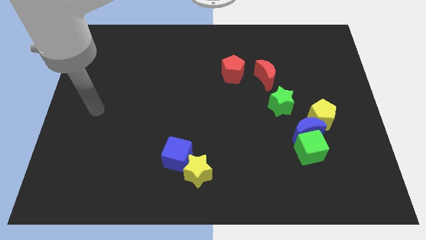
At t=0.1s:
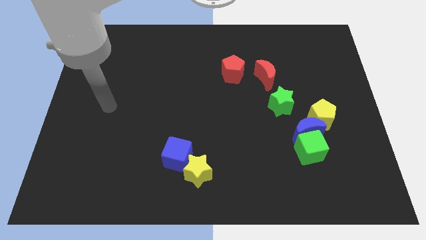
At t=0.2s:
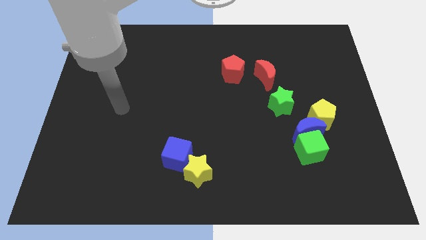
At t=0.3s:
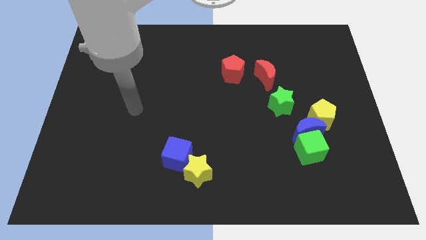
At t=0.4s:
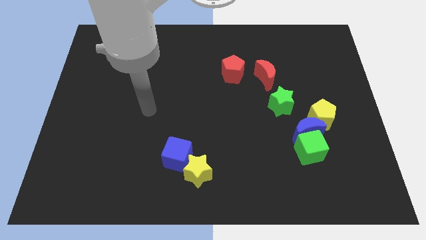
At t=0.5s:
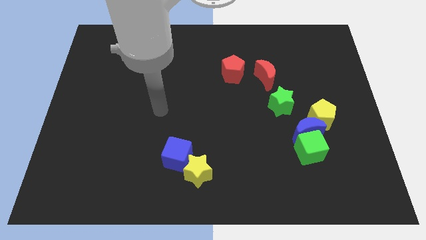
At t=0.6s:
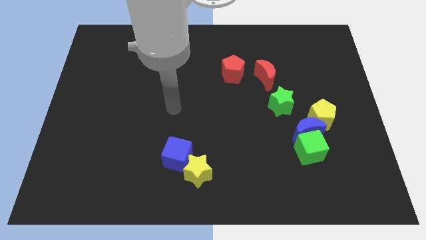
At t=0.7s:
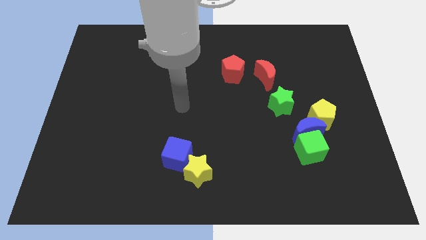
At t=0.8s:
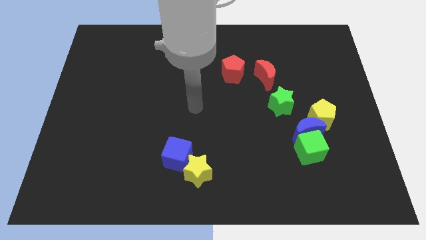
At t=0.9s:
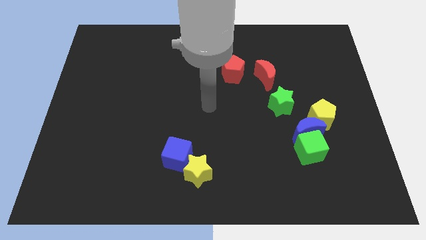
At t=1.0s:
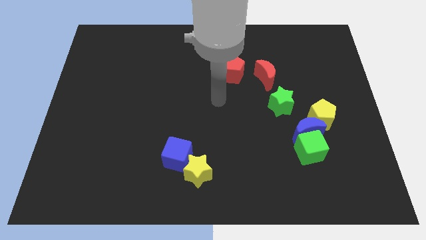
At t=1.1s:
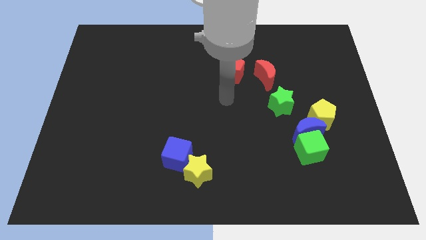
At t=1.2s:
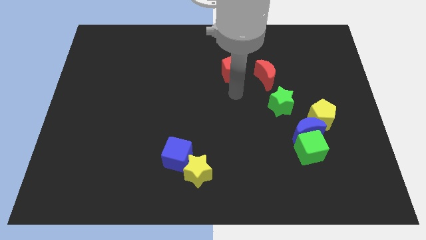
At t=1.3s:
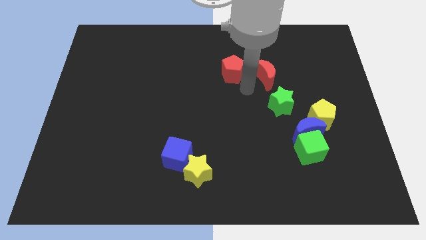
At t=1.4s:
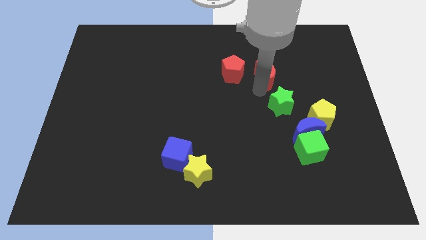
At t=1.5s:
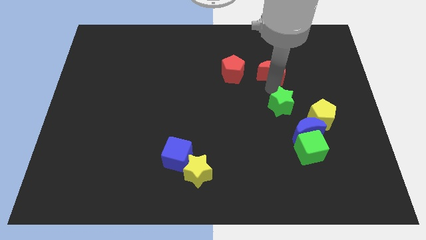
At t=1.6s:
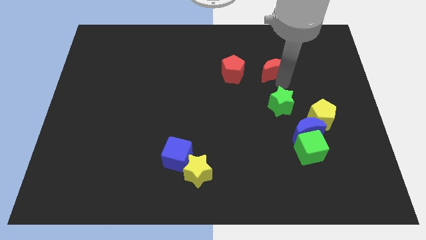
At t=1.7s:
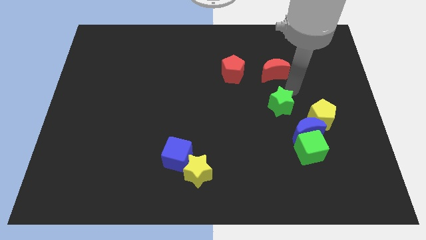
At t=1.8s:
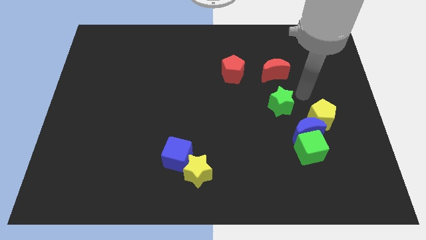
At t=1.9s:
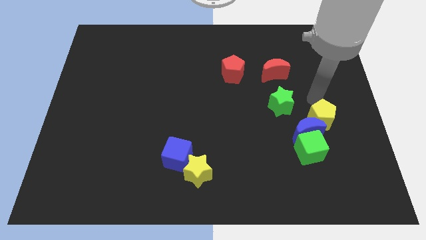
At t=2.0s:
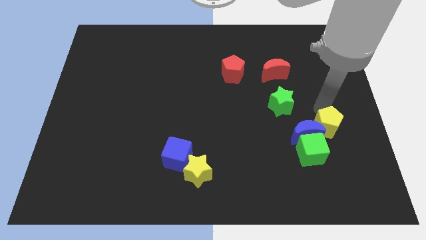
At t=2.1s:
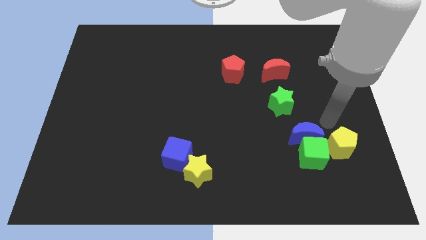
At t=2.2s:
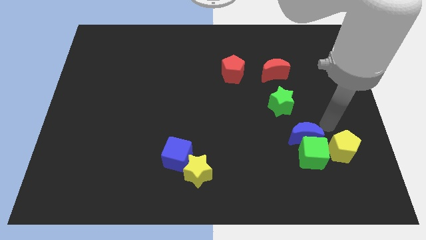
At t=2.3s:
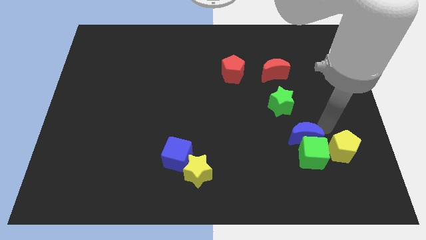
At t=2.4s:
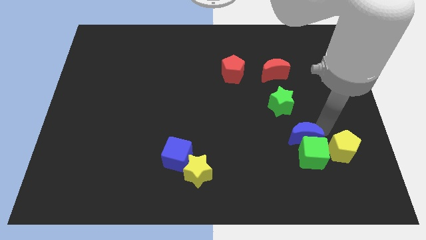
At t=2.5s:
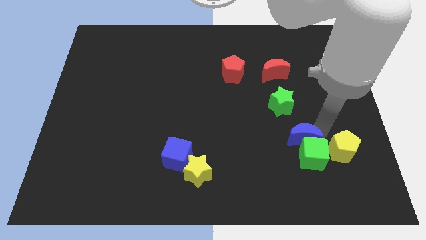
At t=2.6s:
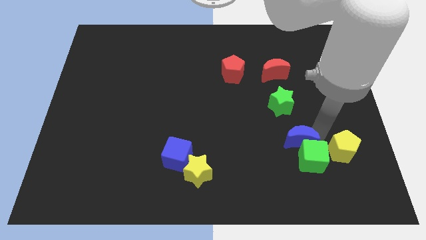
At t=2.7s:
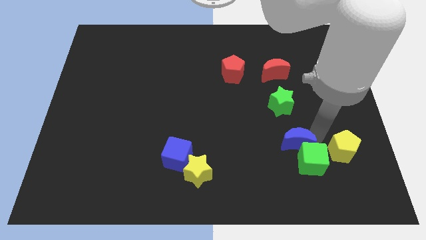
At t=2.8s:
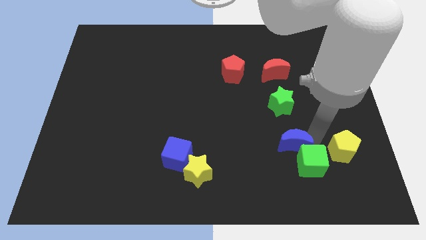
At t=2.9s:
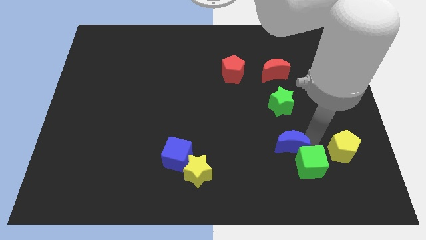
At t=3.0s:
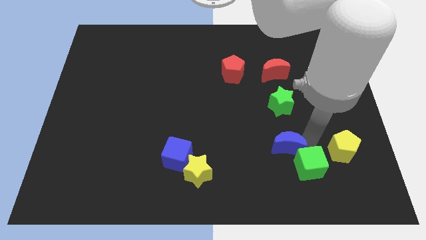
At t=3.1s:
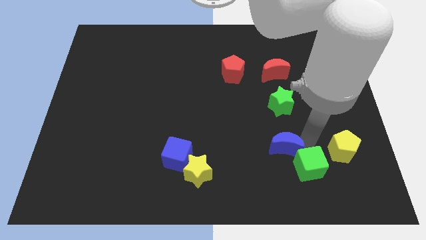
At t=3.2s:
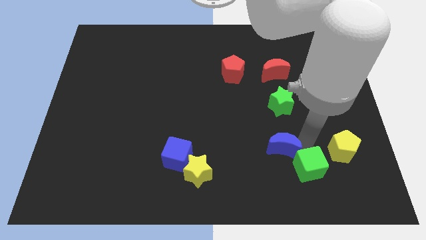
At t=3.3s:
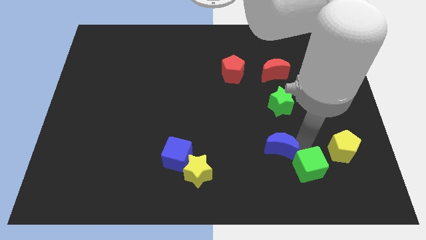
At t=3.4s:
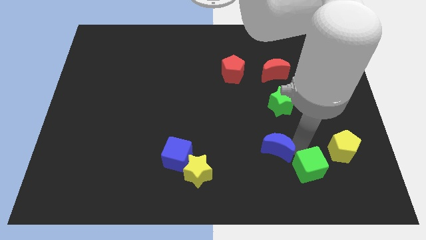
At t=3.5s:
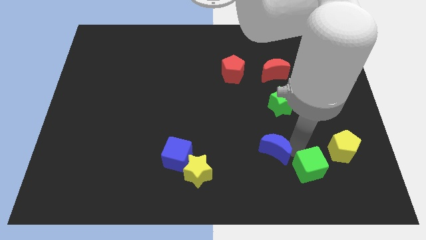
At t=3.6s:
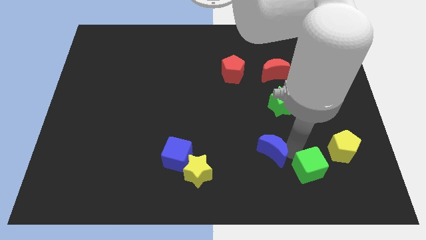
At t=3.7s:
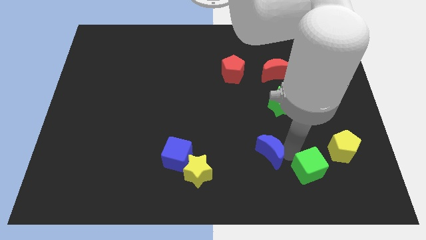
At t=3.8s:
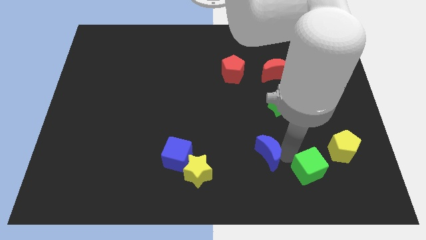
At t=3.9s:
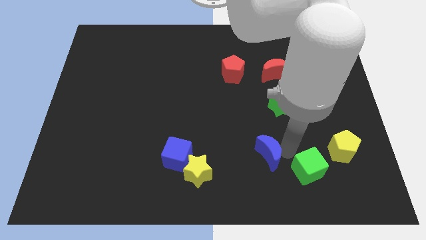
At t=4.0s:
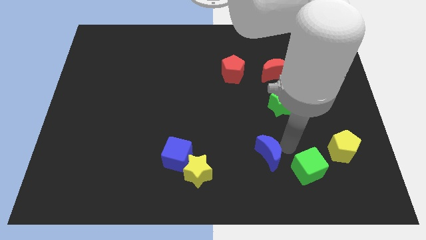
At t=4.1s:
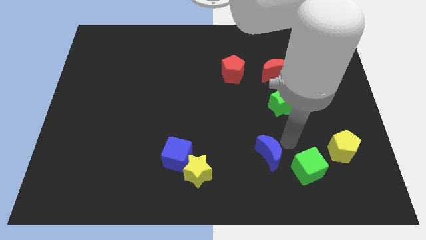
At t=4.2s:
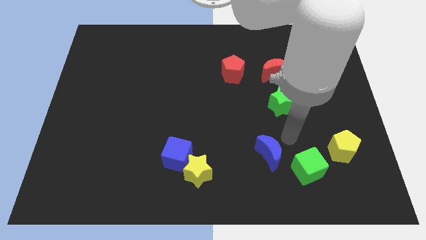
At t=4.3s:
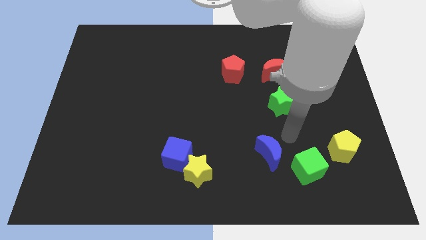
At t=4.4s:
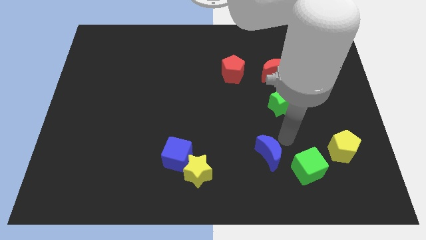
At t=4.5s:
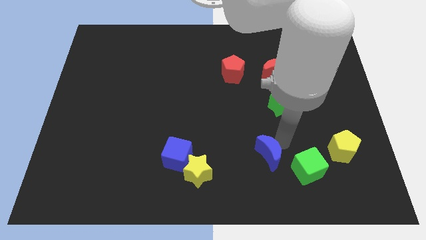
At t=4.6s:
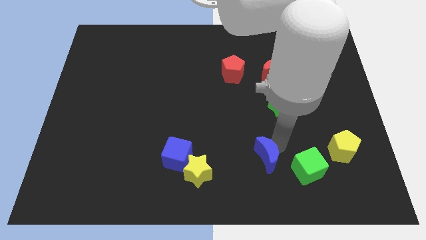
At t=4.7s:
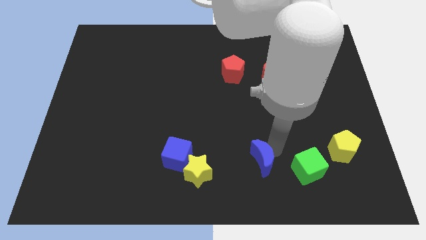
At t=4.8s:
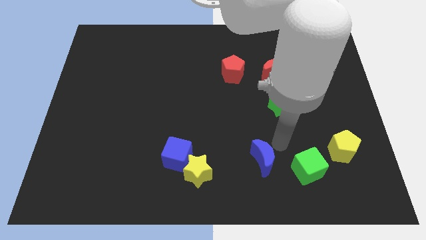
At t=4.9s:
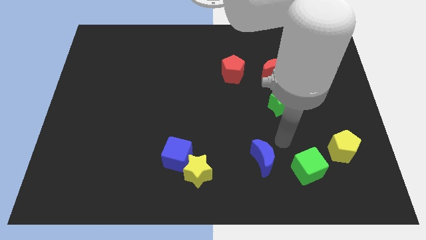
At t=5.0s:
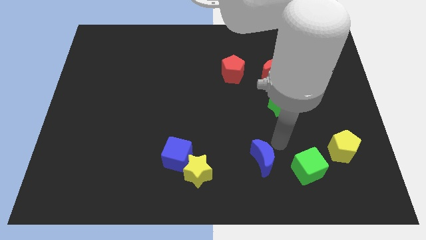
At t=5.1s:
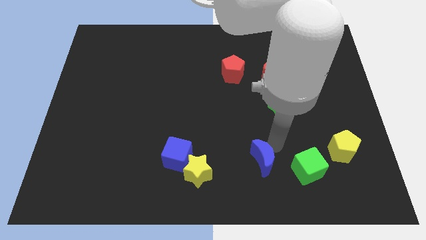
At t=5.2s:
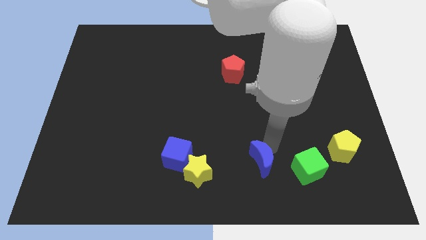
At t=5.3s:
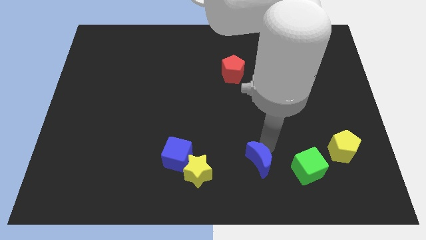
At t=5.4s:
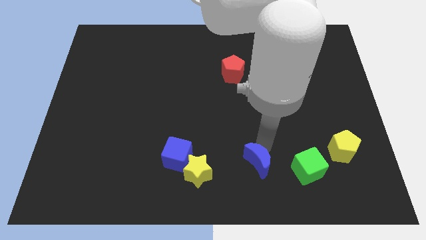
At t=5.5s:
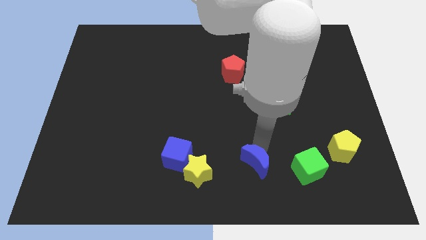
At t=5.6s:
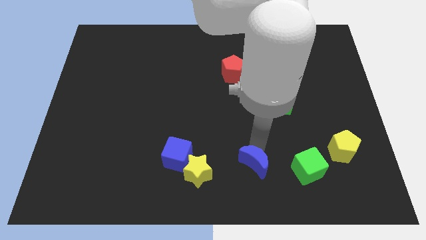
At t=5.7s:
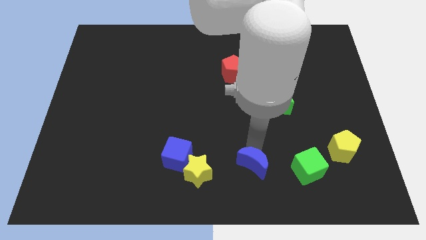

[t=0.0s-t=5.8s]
slide the blue moon to the bottom side
